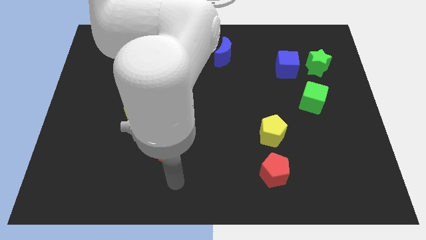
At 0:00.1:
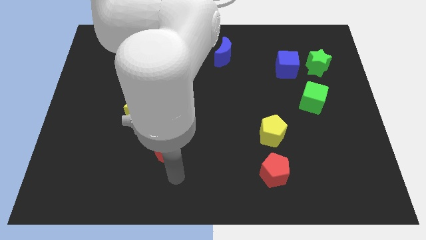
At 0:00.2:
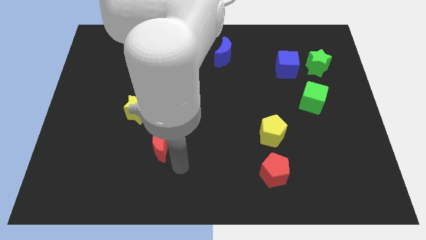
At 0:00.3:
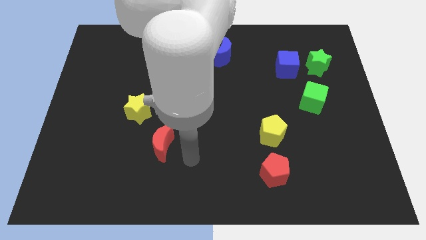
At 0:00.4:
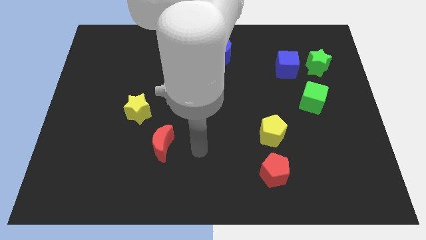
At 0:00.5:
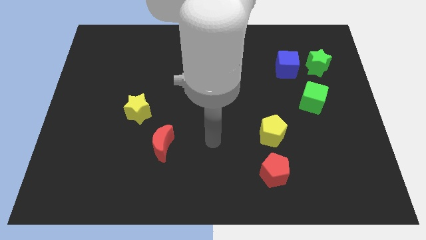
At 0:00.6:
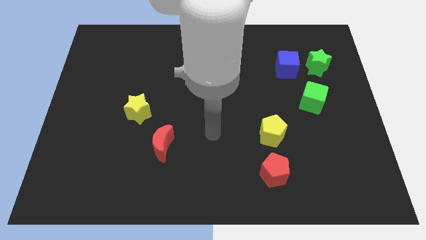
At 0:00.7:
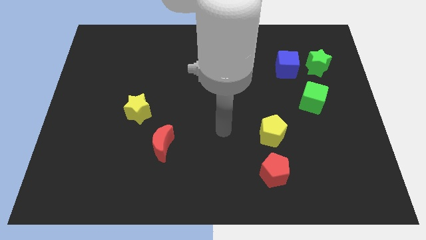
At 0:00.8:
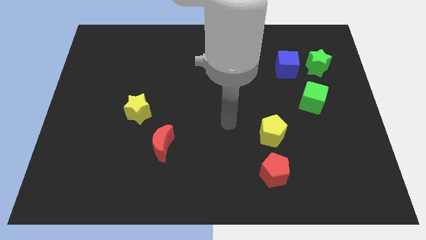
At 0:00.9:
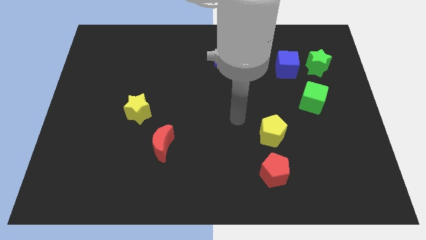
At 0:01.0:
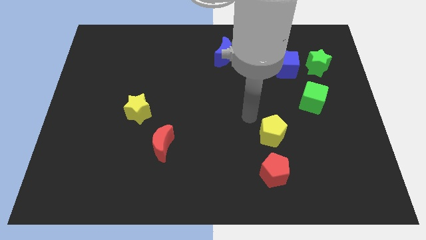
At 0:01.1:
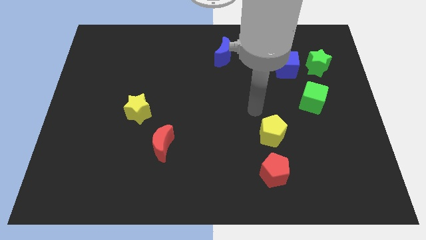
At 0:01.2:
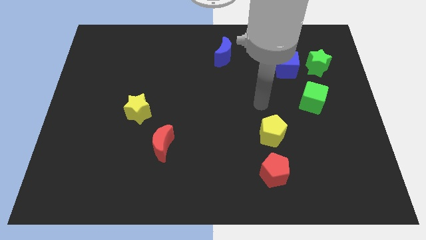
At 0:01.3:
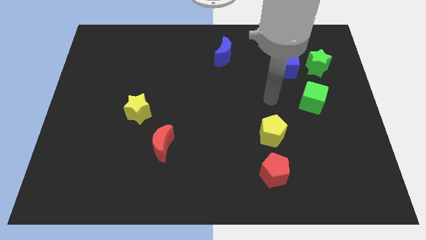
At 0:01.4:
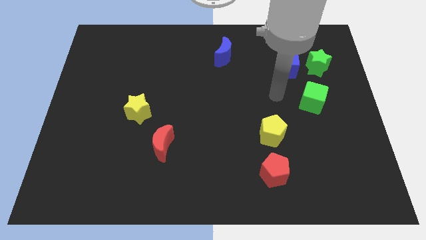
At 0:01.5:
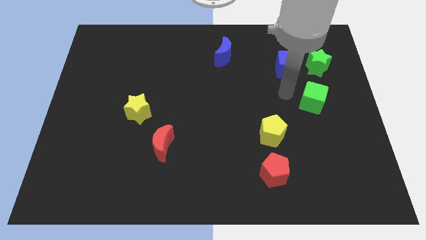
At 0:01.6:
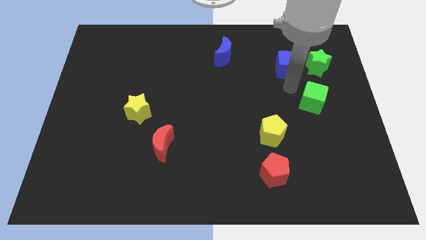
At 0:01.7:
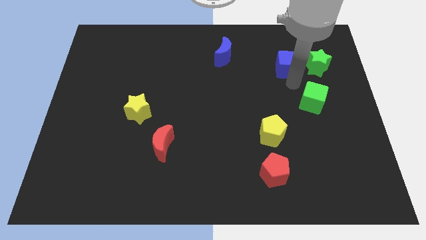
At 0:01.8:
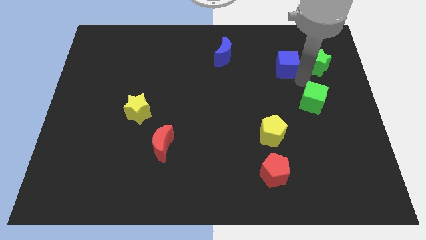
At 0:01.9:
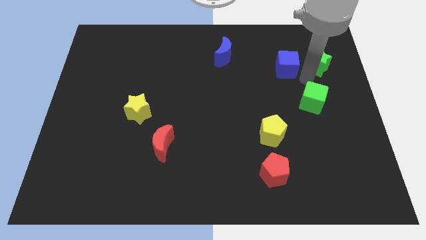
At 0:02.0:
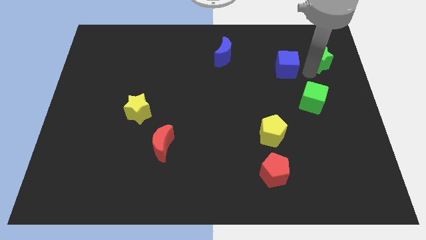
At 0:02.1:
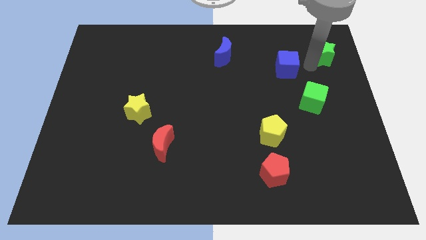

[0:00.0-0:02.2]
separate the blue cube from the green star

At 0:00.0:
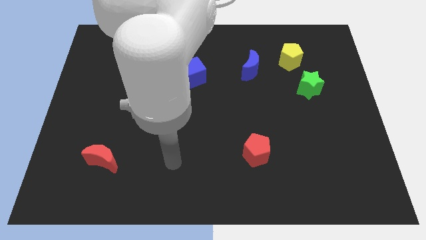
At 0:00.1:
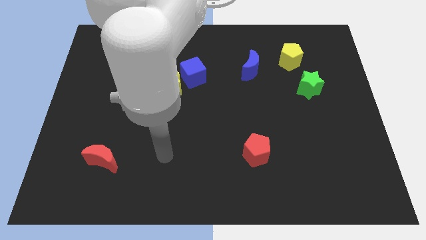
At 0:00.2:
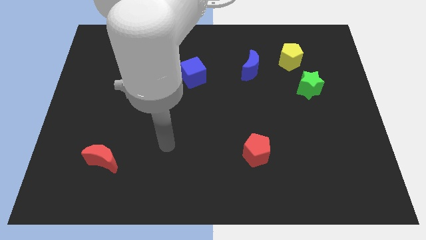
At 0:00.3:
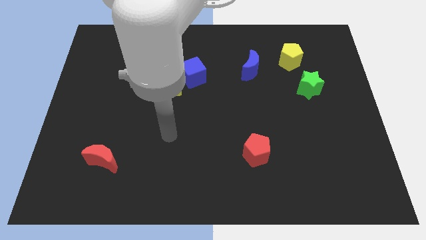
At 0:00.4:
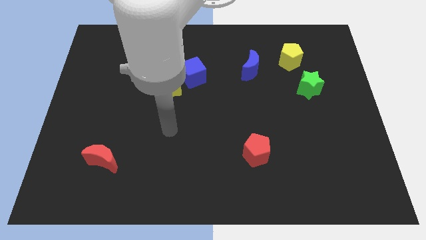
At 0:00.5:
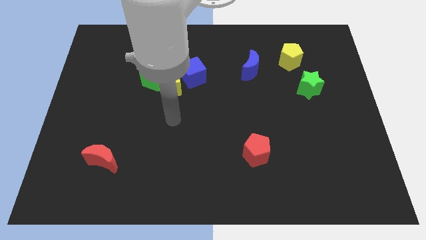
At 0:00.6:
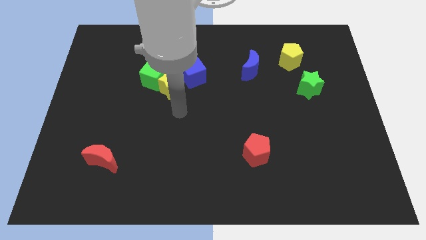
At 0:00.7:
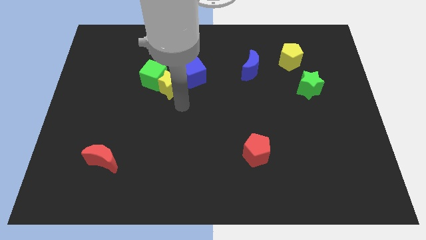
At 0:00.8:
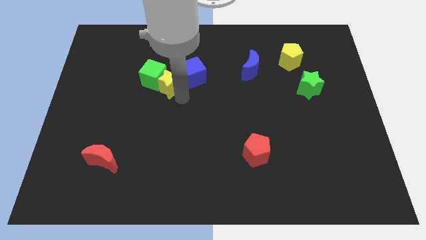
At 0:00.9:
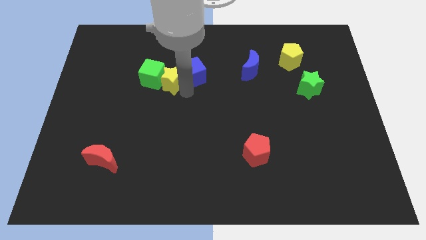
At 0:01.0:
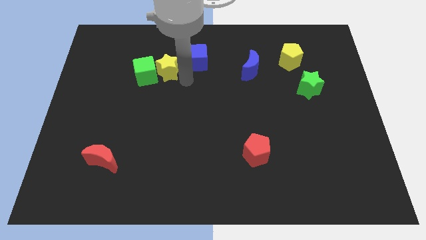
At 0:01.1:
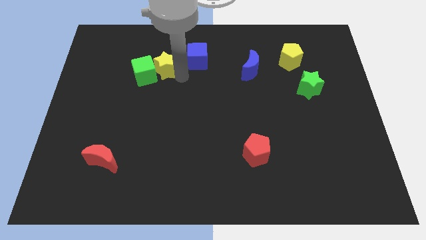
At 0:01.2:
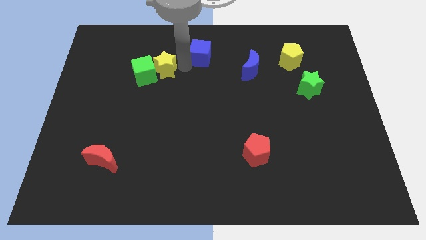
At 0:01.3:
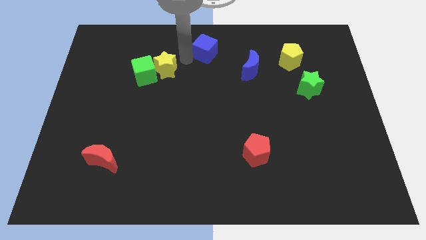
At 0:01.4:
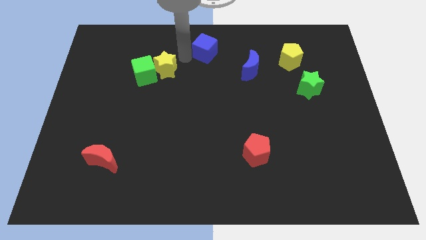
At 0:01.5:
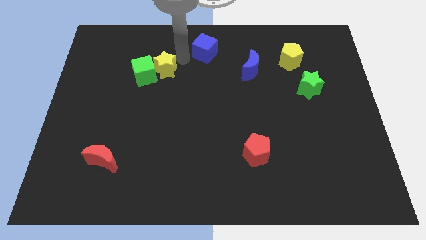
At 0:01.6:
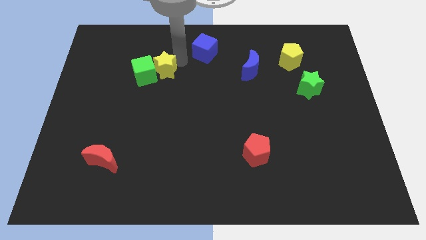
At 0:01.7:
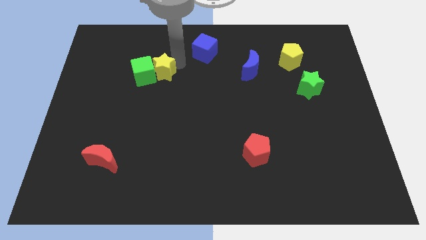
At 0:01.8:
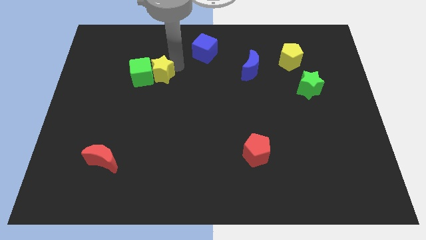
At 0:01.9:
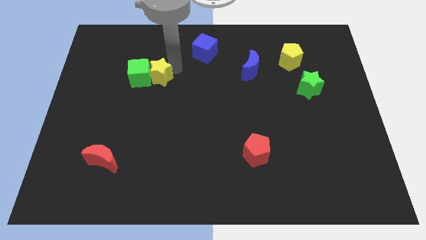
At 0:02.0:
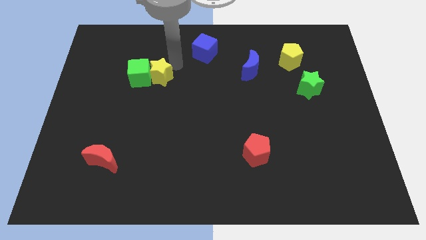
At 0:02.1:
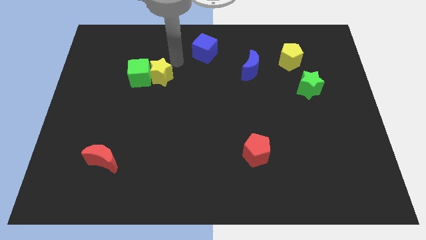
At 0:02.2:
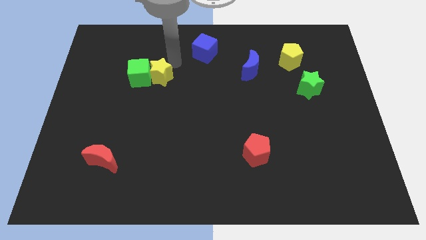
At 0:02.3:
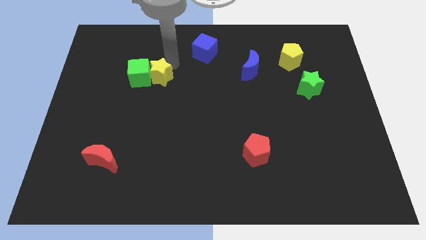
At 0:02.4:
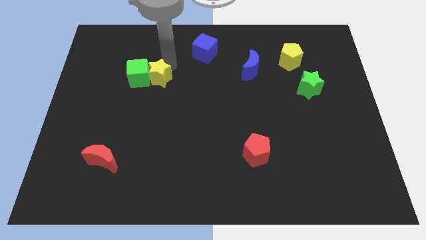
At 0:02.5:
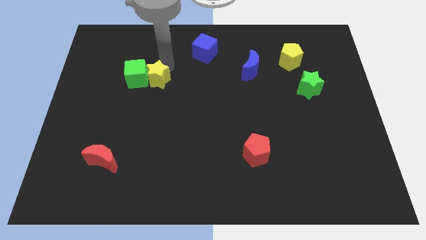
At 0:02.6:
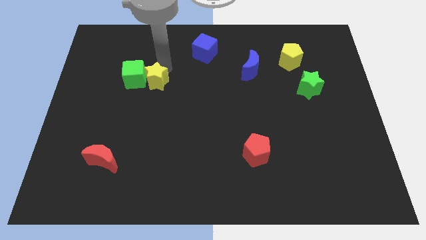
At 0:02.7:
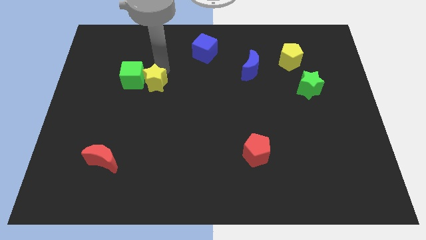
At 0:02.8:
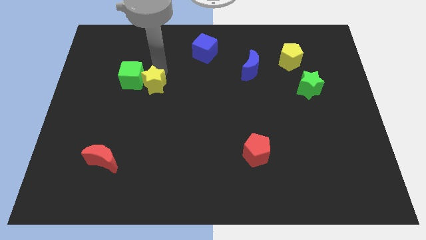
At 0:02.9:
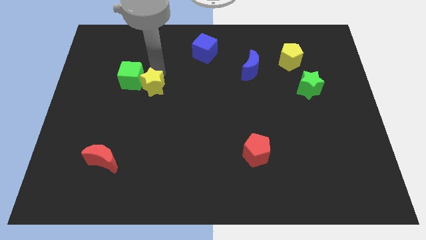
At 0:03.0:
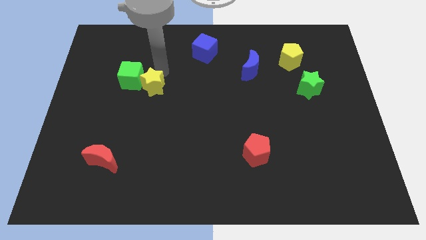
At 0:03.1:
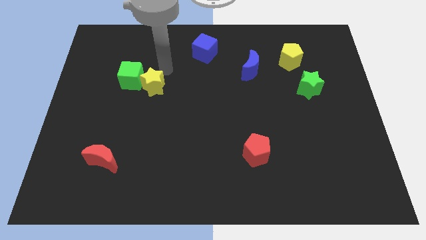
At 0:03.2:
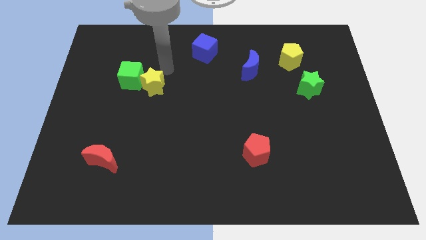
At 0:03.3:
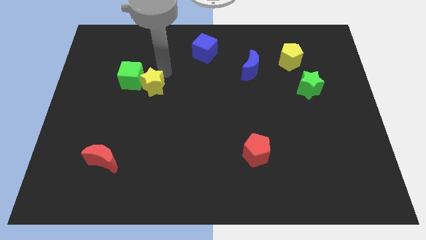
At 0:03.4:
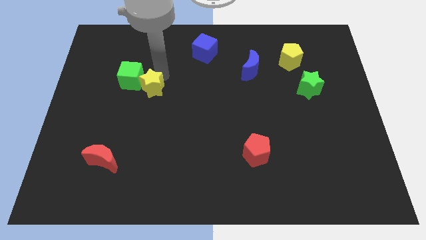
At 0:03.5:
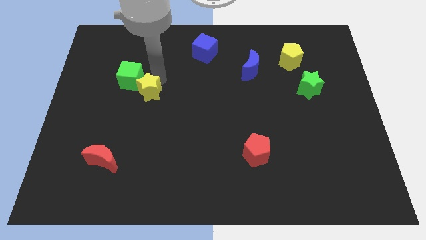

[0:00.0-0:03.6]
pull the yellow star apart from the green cube and blue cube

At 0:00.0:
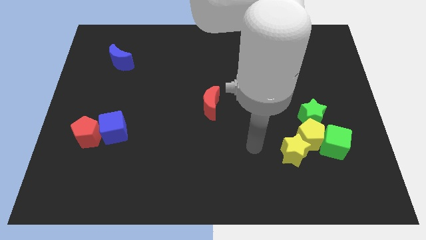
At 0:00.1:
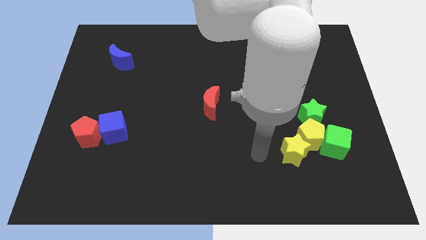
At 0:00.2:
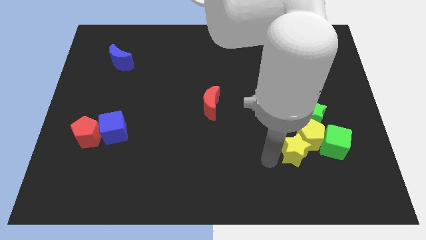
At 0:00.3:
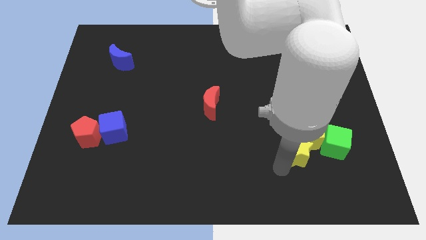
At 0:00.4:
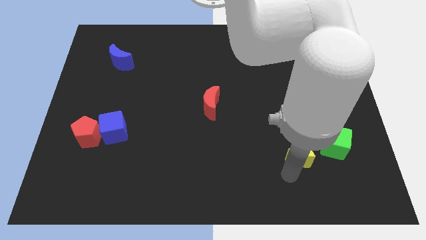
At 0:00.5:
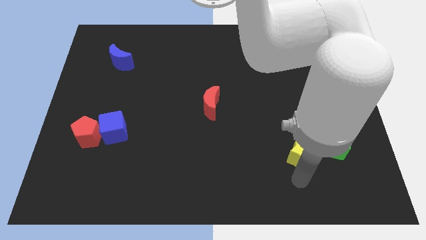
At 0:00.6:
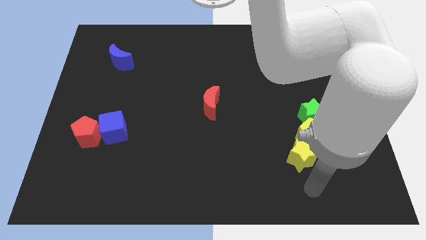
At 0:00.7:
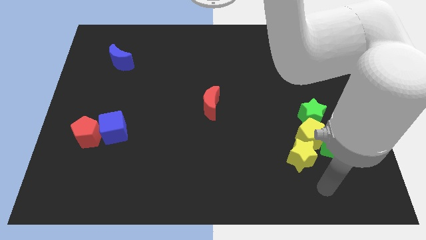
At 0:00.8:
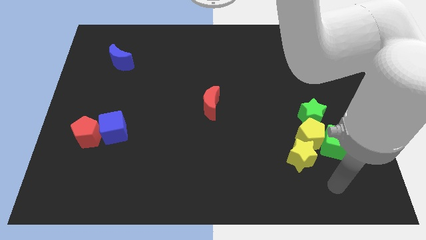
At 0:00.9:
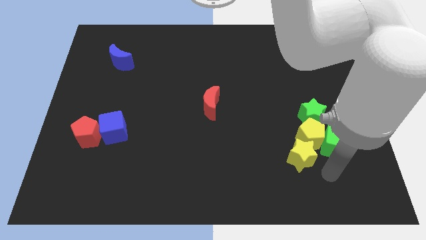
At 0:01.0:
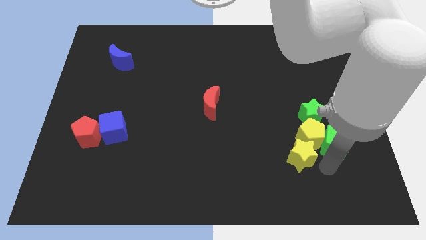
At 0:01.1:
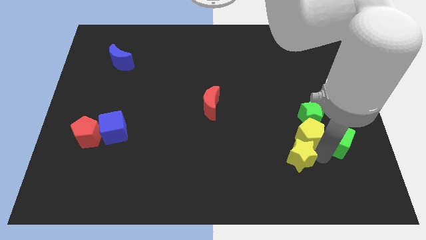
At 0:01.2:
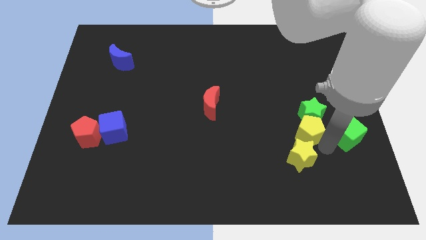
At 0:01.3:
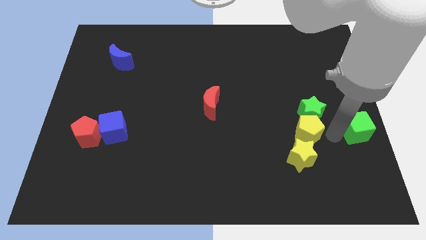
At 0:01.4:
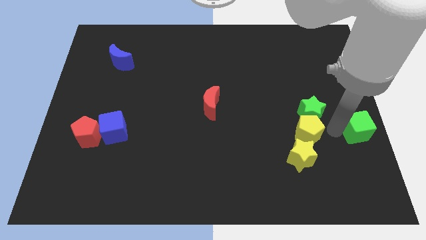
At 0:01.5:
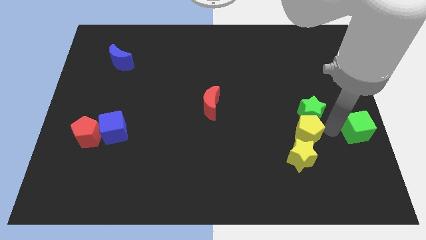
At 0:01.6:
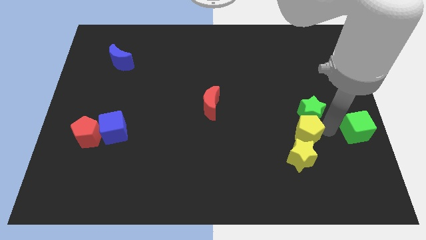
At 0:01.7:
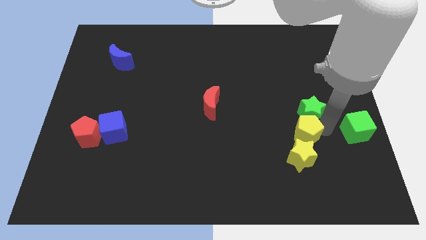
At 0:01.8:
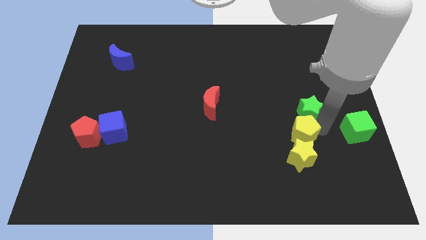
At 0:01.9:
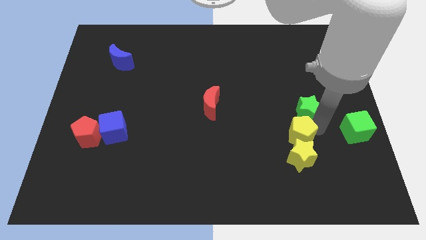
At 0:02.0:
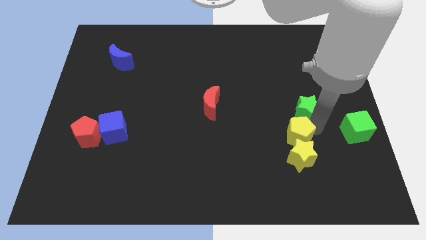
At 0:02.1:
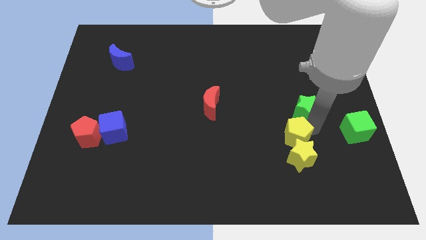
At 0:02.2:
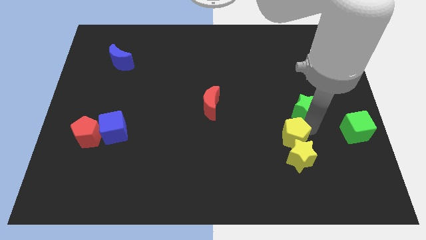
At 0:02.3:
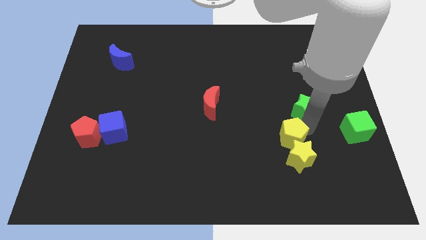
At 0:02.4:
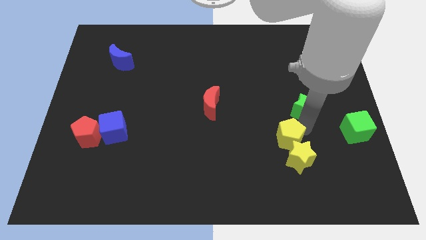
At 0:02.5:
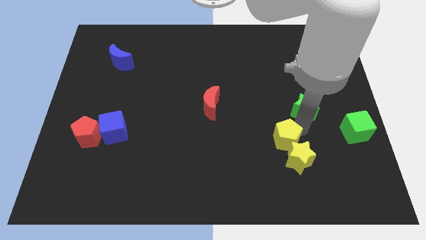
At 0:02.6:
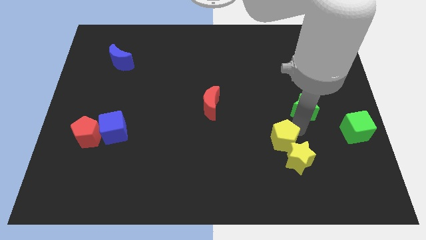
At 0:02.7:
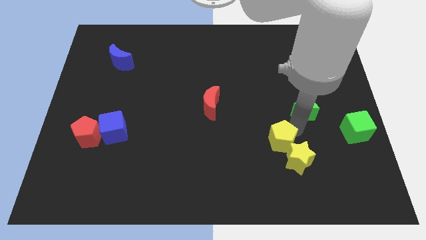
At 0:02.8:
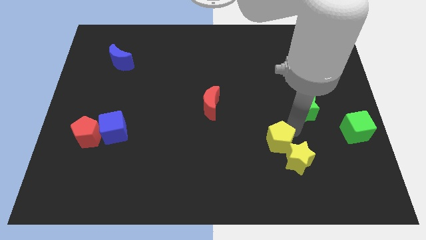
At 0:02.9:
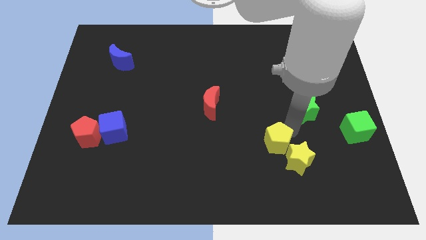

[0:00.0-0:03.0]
pull the yellow pentagon apart from the yellow star, green cube, and green star

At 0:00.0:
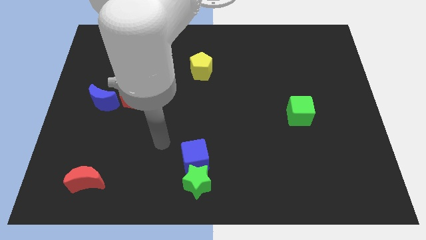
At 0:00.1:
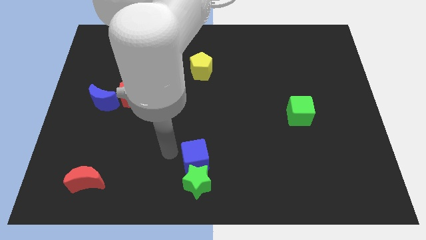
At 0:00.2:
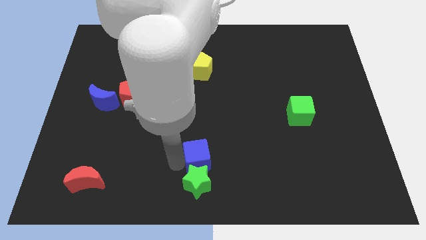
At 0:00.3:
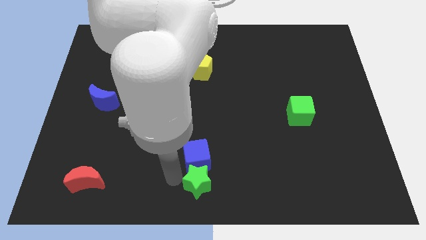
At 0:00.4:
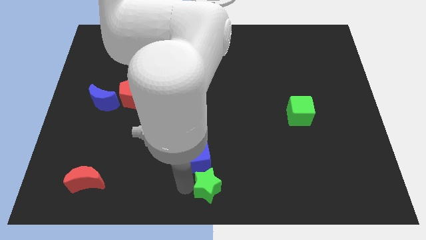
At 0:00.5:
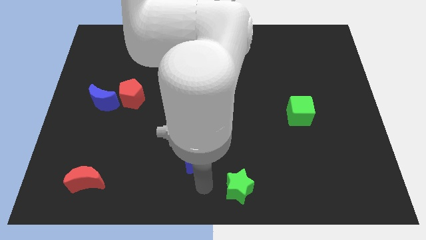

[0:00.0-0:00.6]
move the blue cube away from the green star
